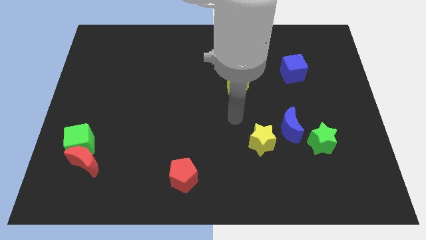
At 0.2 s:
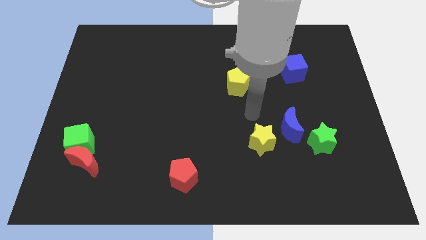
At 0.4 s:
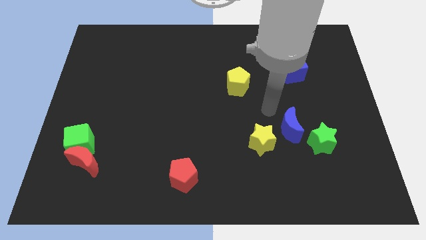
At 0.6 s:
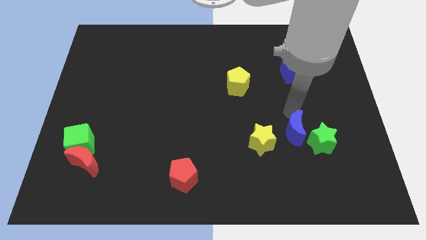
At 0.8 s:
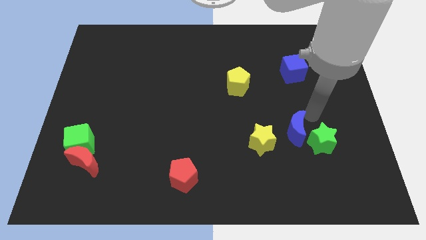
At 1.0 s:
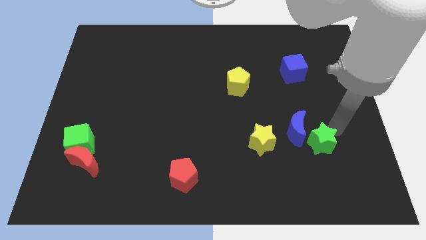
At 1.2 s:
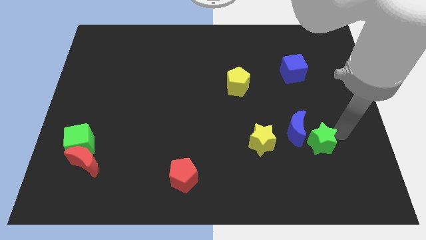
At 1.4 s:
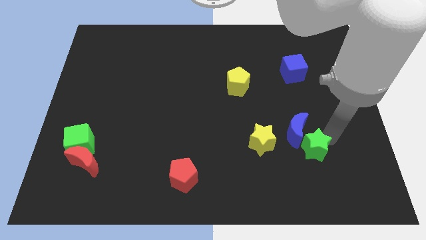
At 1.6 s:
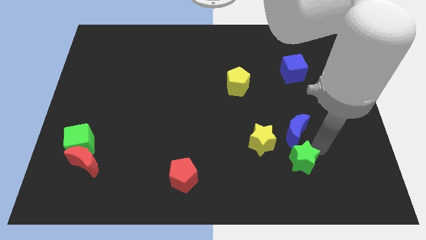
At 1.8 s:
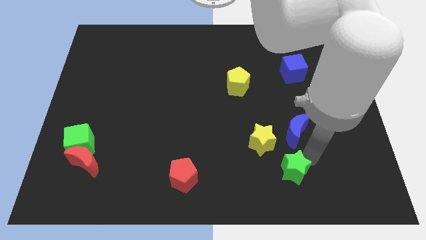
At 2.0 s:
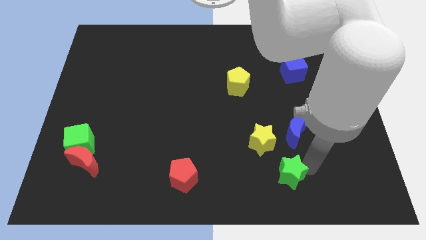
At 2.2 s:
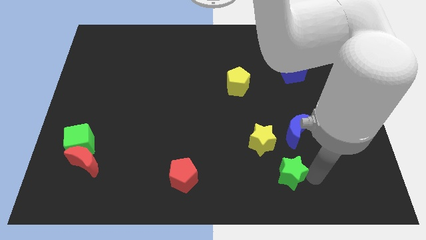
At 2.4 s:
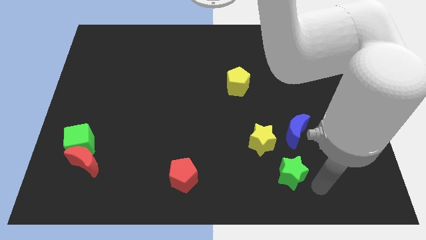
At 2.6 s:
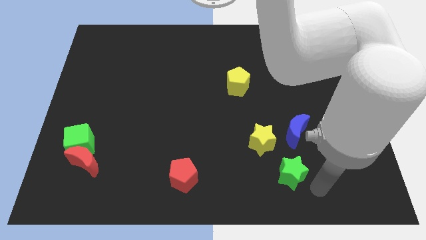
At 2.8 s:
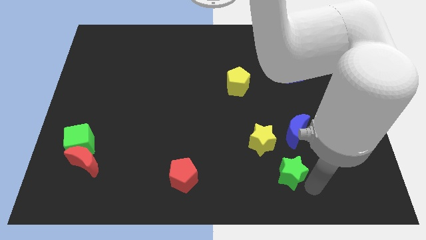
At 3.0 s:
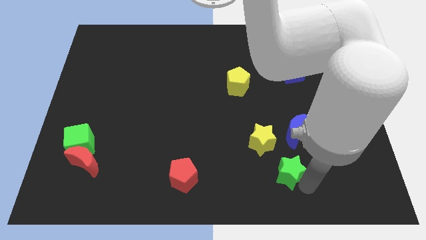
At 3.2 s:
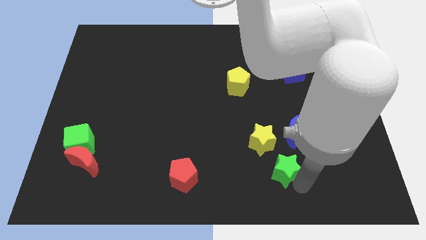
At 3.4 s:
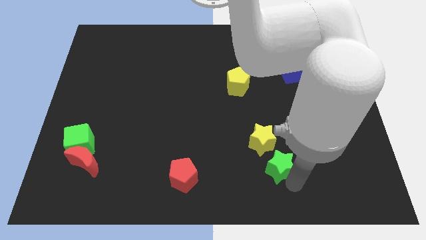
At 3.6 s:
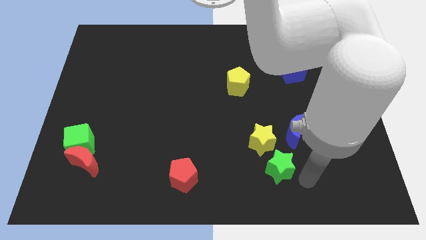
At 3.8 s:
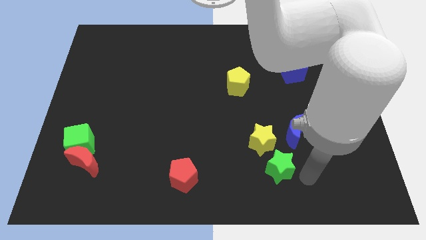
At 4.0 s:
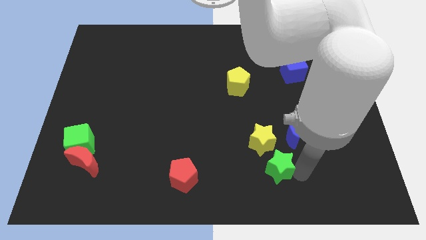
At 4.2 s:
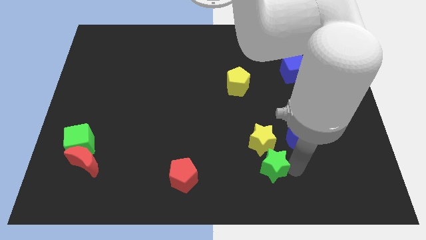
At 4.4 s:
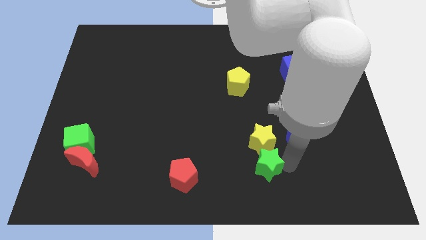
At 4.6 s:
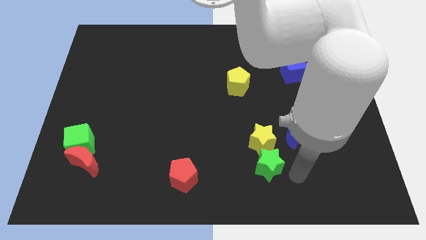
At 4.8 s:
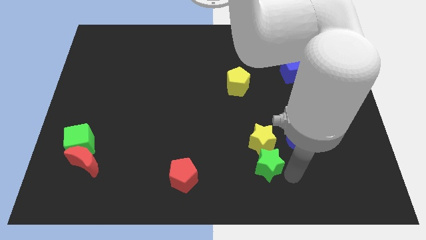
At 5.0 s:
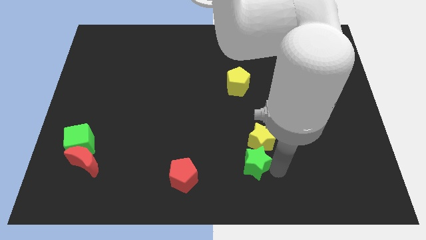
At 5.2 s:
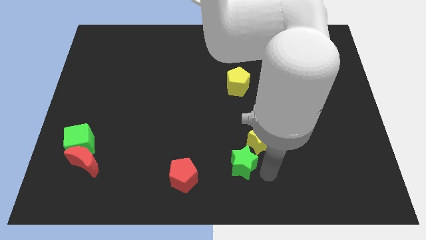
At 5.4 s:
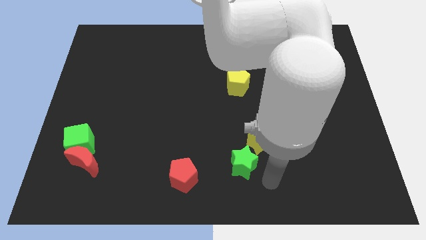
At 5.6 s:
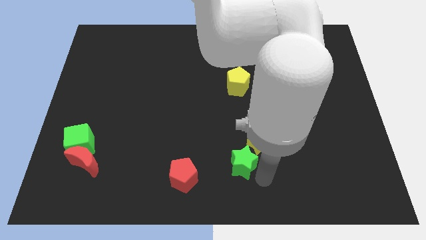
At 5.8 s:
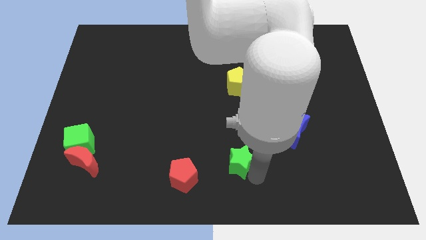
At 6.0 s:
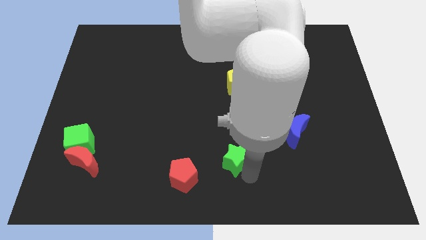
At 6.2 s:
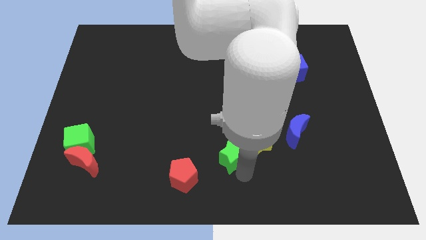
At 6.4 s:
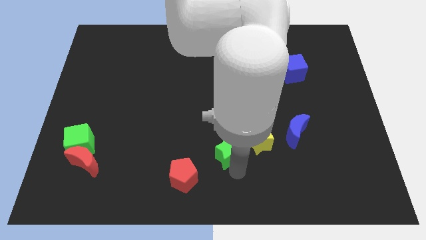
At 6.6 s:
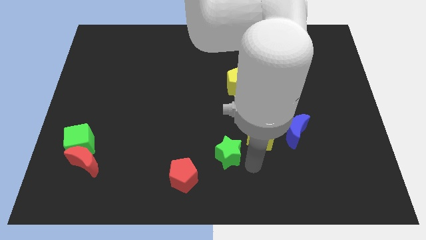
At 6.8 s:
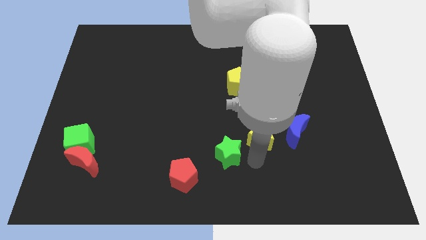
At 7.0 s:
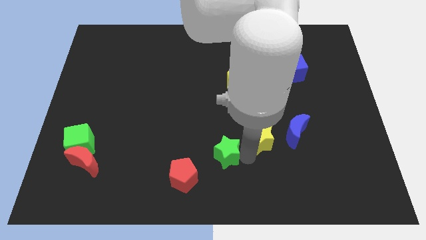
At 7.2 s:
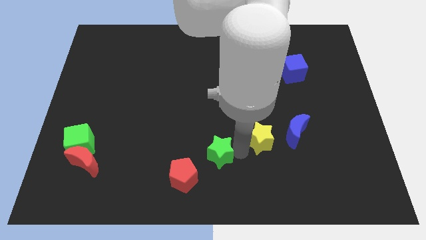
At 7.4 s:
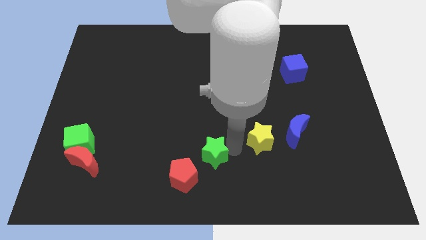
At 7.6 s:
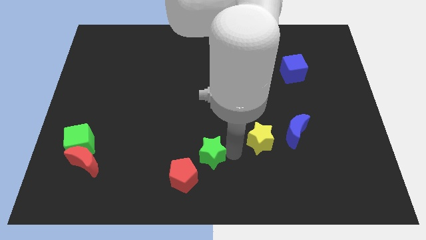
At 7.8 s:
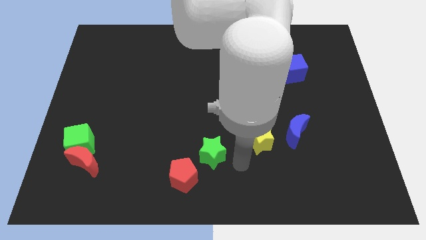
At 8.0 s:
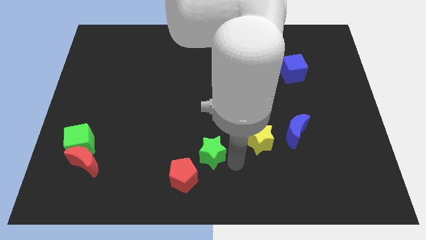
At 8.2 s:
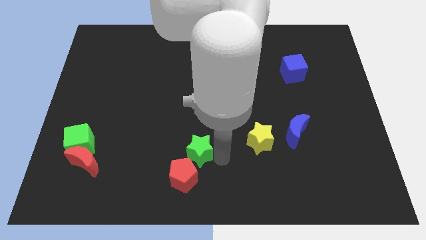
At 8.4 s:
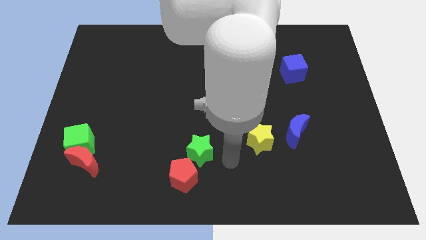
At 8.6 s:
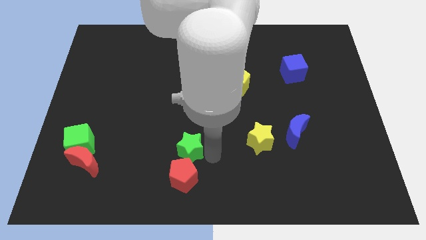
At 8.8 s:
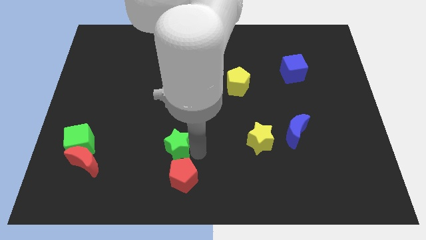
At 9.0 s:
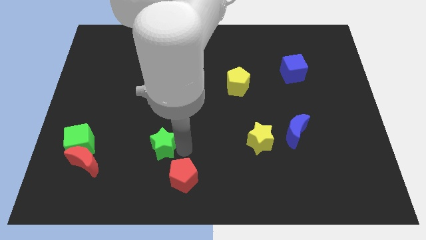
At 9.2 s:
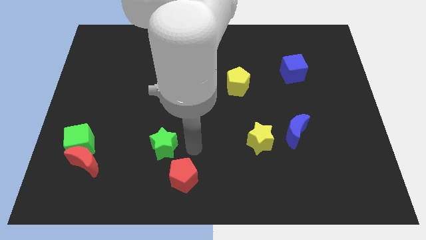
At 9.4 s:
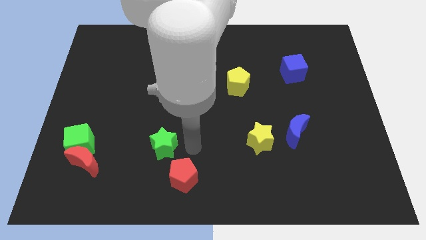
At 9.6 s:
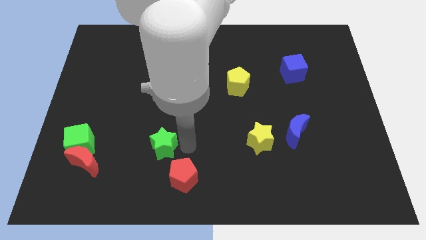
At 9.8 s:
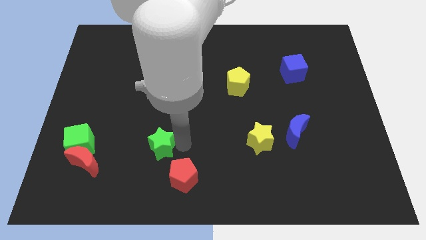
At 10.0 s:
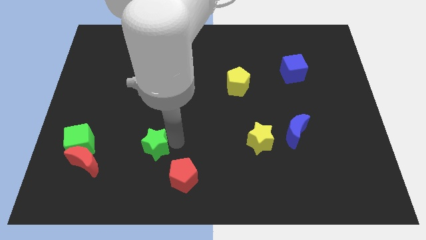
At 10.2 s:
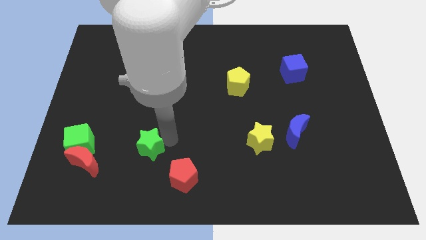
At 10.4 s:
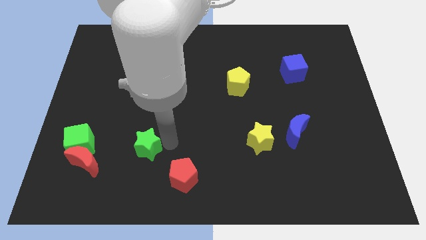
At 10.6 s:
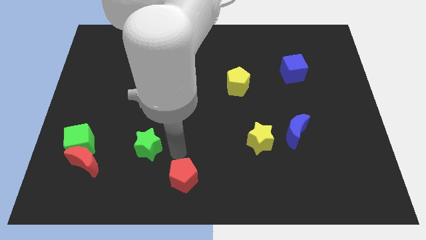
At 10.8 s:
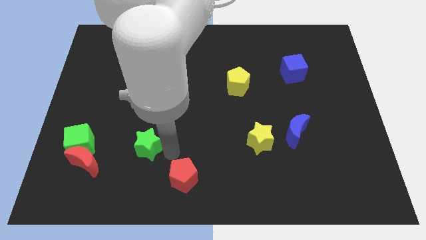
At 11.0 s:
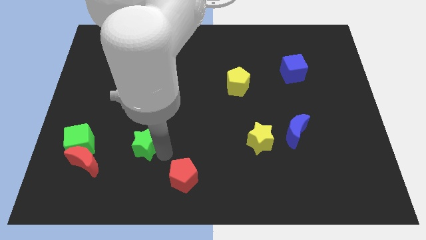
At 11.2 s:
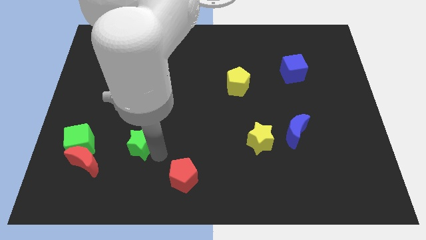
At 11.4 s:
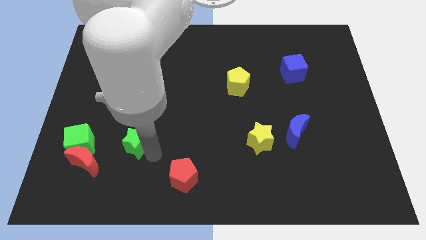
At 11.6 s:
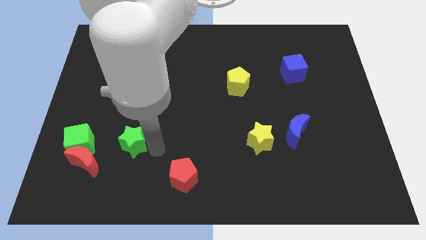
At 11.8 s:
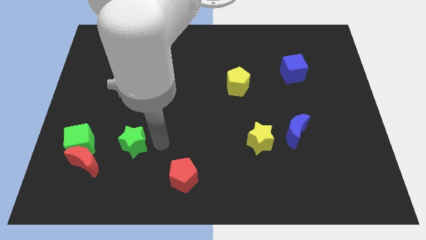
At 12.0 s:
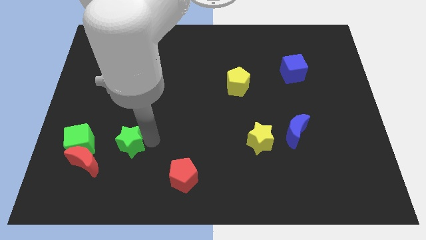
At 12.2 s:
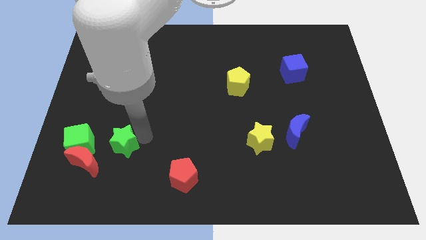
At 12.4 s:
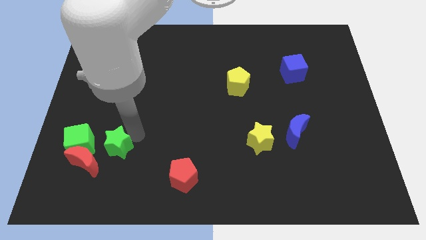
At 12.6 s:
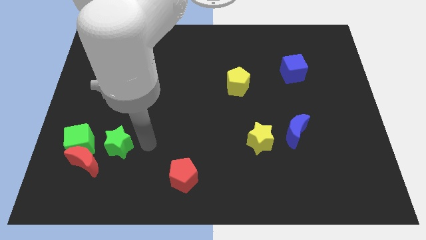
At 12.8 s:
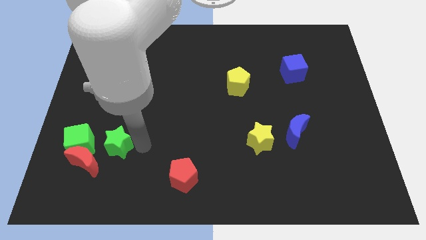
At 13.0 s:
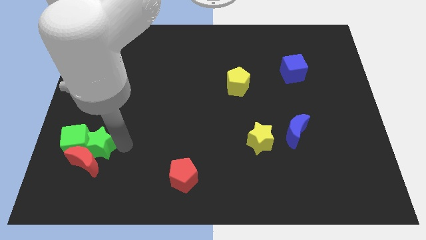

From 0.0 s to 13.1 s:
slide the green star towards the green cube

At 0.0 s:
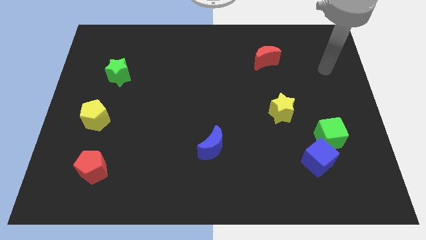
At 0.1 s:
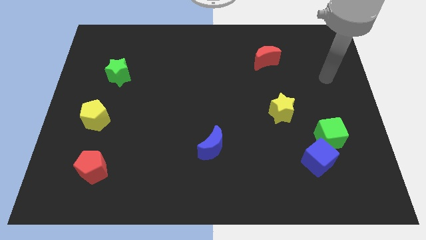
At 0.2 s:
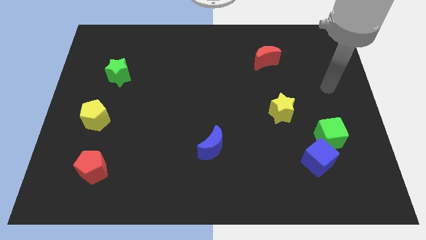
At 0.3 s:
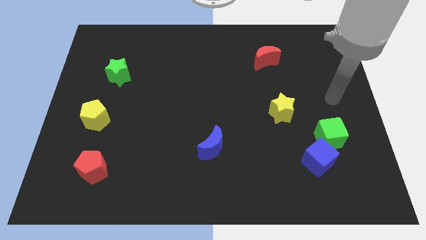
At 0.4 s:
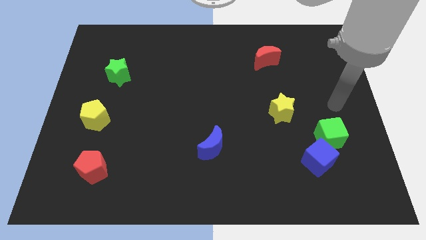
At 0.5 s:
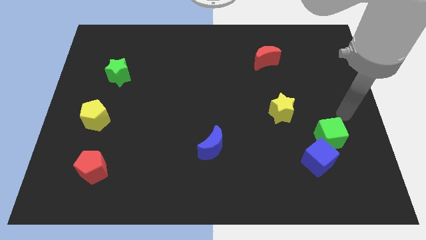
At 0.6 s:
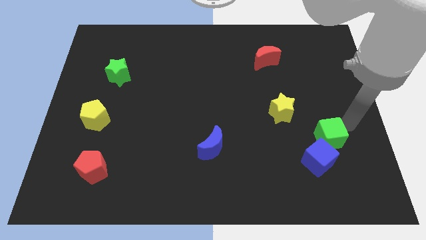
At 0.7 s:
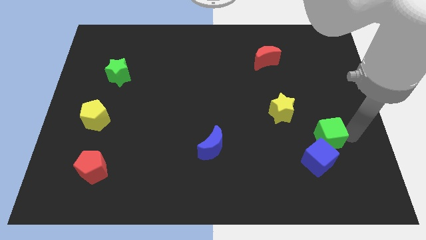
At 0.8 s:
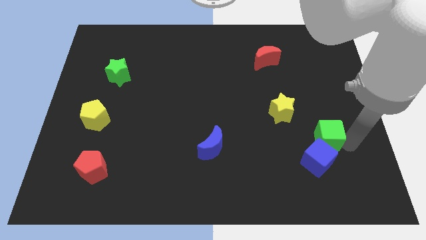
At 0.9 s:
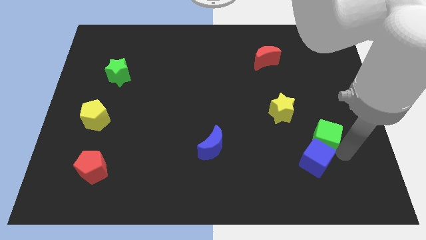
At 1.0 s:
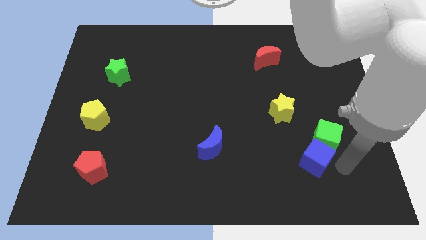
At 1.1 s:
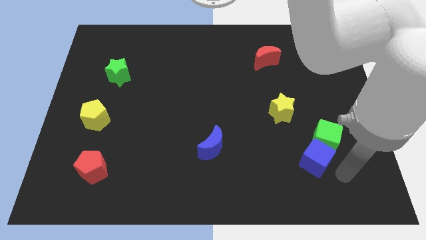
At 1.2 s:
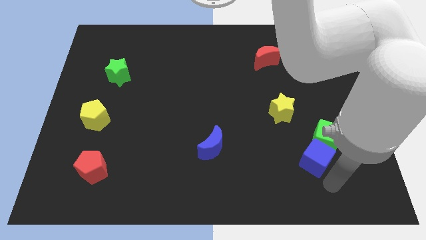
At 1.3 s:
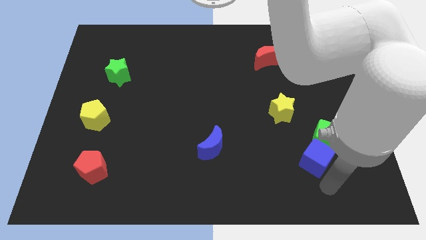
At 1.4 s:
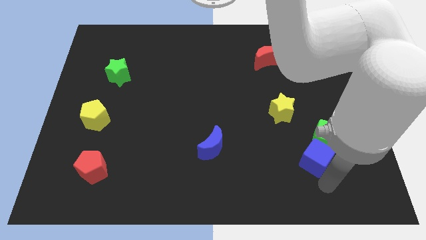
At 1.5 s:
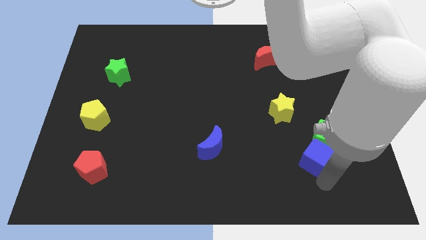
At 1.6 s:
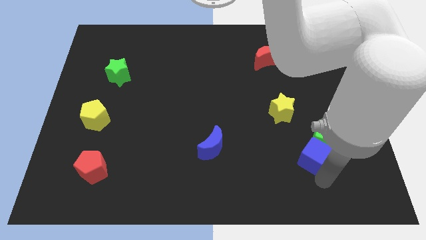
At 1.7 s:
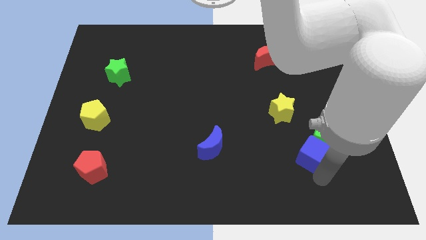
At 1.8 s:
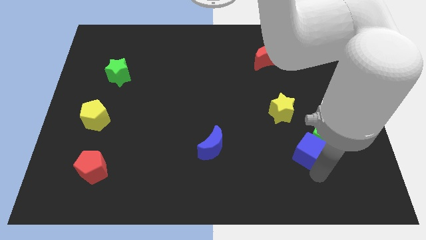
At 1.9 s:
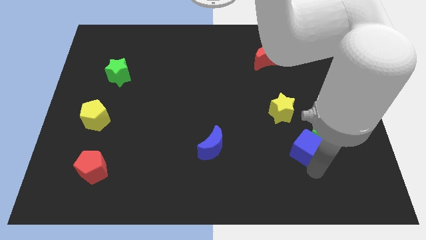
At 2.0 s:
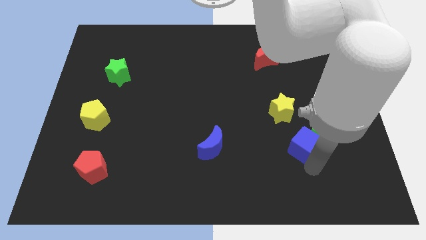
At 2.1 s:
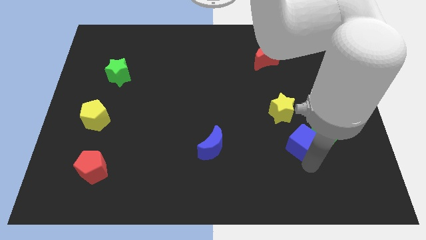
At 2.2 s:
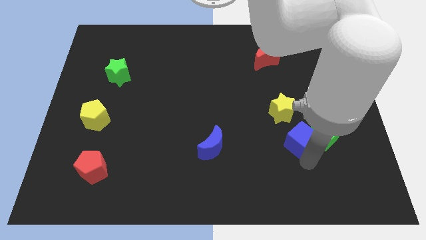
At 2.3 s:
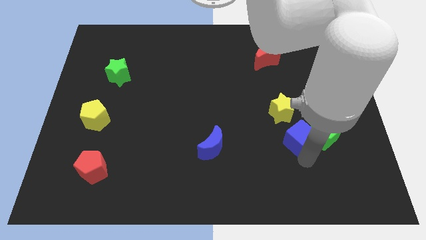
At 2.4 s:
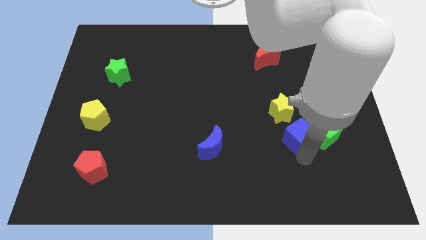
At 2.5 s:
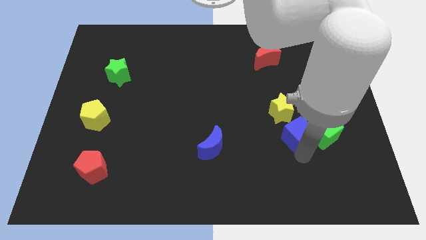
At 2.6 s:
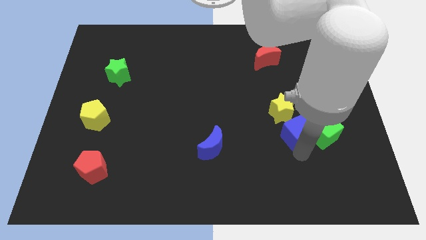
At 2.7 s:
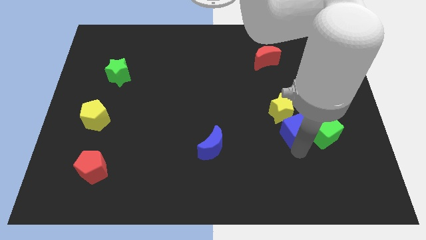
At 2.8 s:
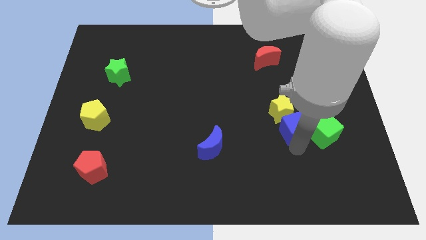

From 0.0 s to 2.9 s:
push the blue cube close to the yellow star
